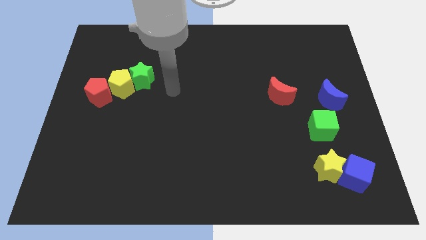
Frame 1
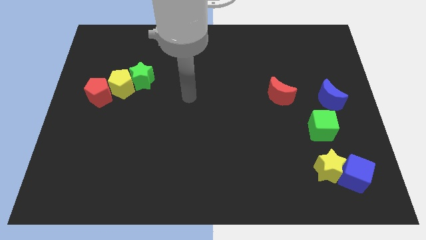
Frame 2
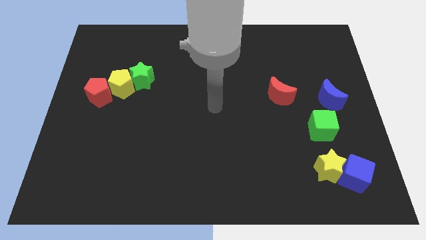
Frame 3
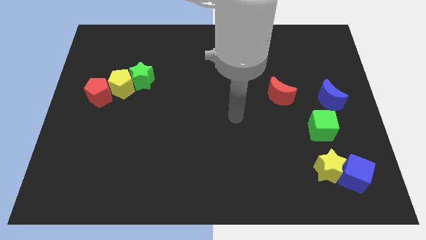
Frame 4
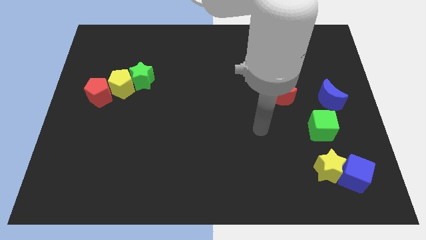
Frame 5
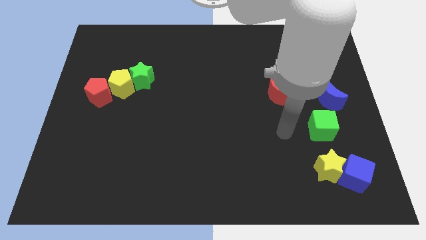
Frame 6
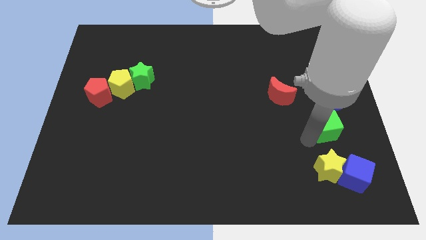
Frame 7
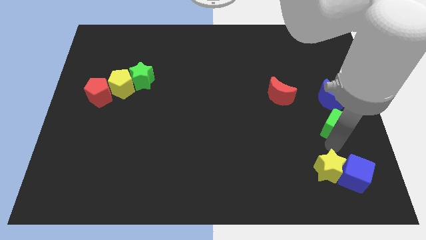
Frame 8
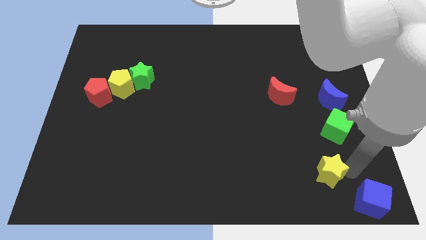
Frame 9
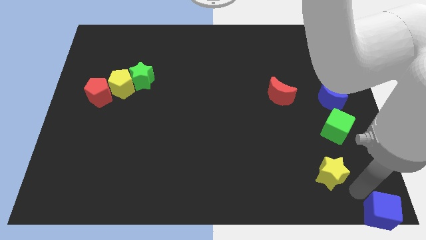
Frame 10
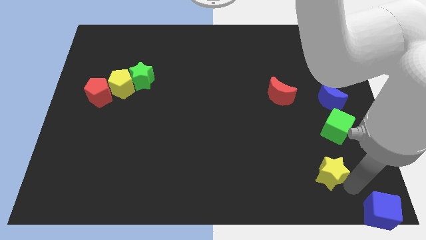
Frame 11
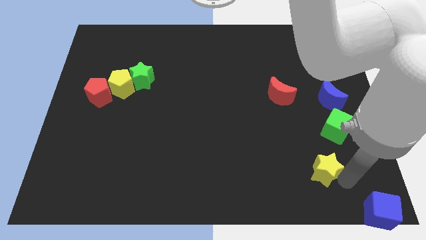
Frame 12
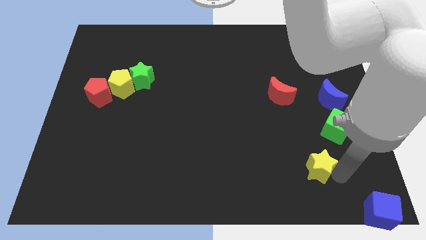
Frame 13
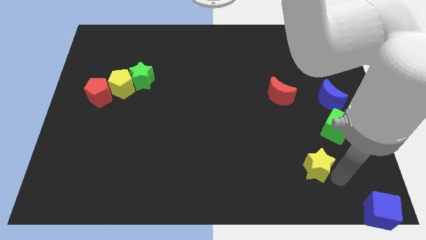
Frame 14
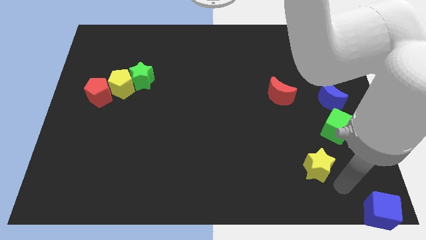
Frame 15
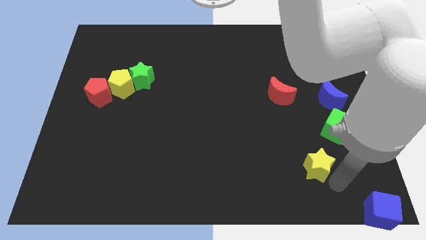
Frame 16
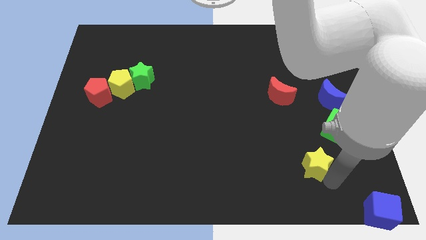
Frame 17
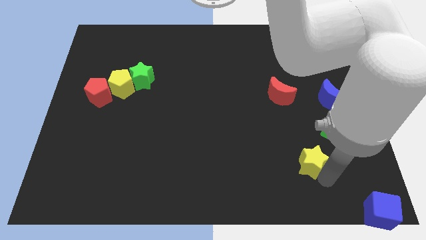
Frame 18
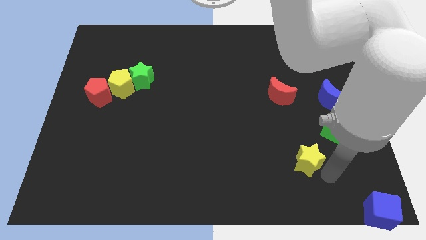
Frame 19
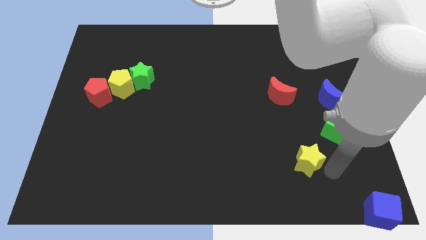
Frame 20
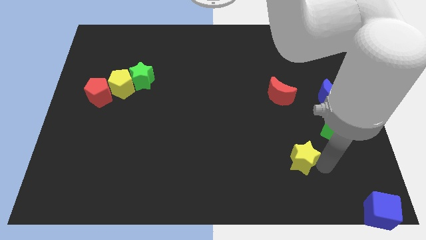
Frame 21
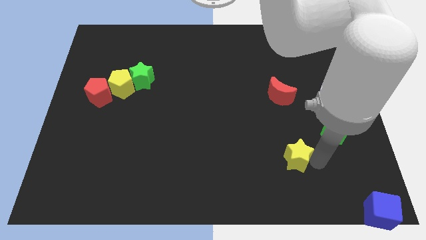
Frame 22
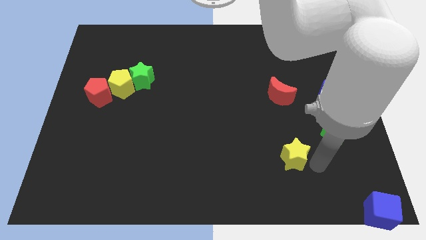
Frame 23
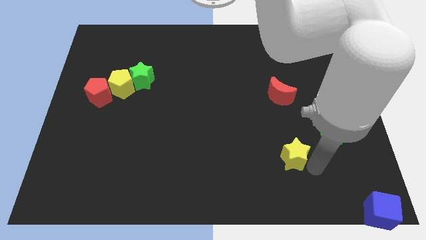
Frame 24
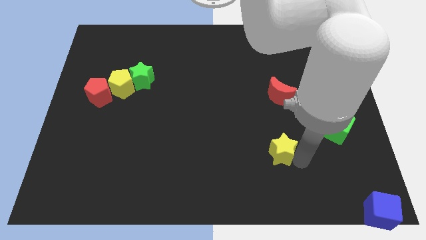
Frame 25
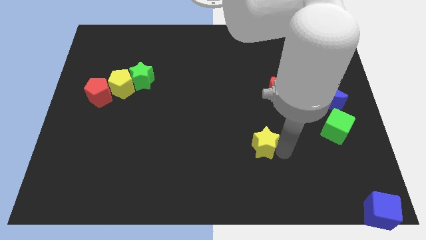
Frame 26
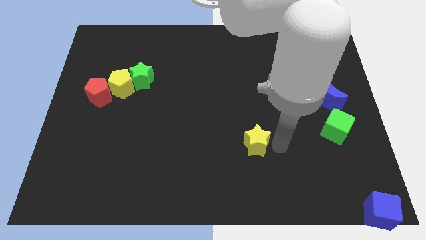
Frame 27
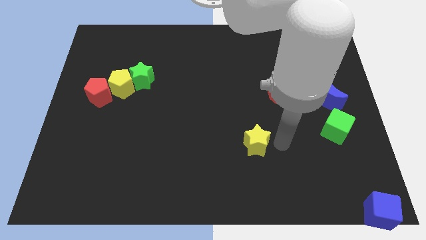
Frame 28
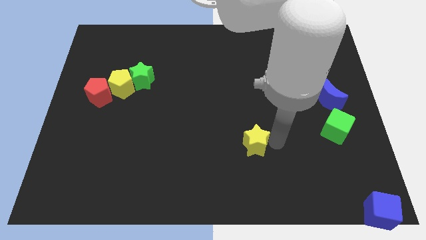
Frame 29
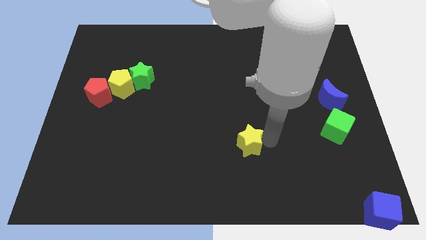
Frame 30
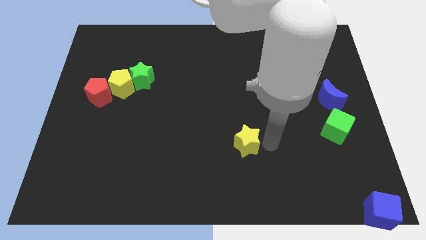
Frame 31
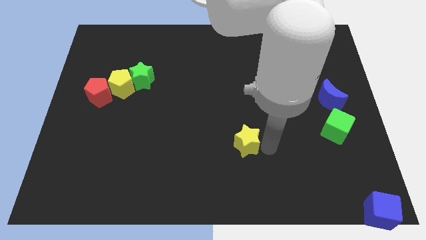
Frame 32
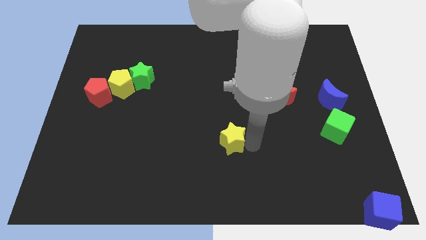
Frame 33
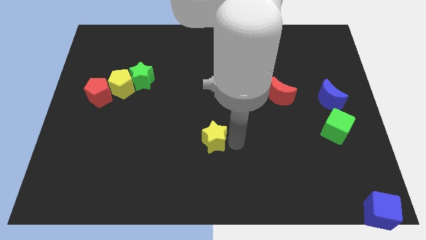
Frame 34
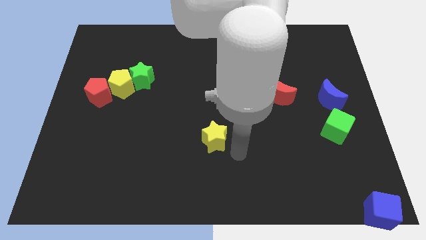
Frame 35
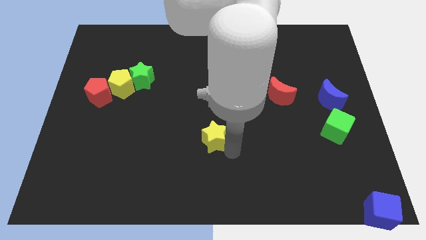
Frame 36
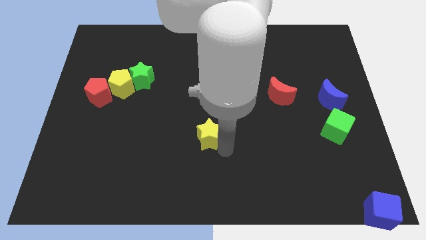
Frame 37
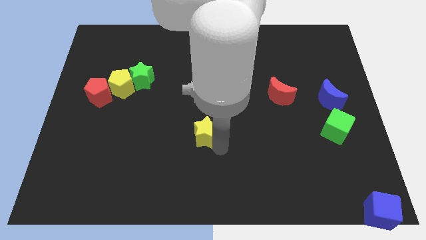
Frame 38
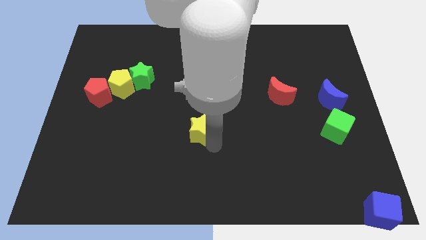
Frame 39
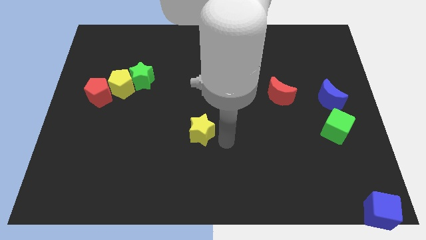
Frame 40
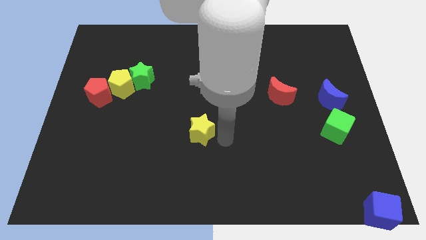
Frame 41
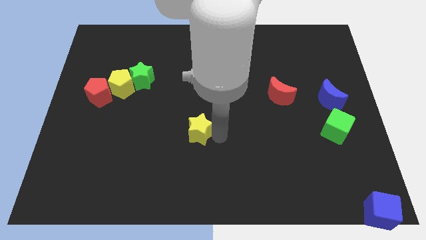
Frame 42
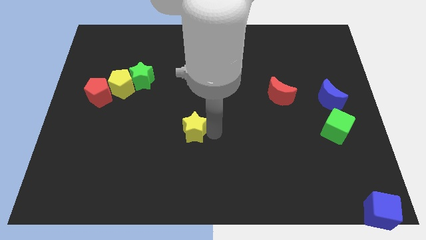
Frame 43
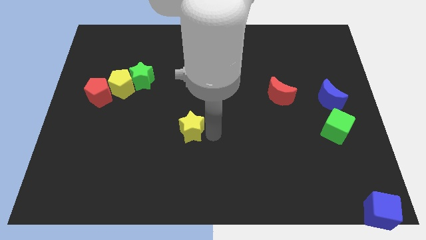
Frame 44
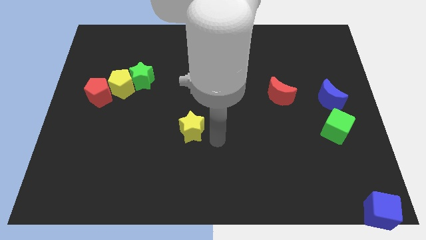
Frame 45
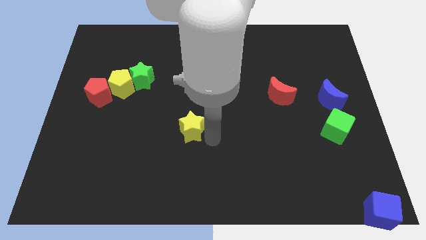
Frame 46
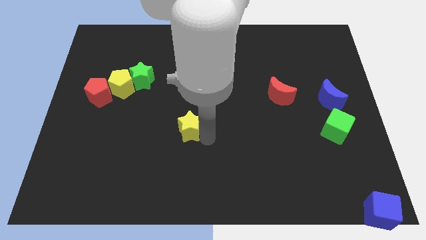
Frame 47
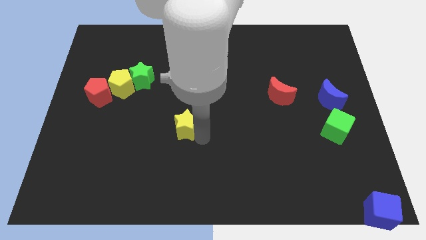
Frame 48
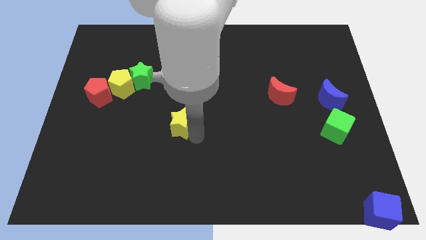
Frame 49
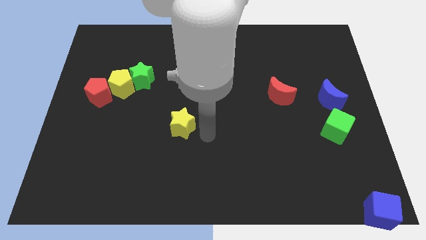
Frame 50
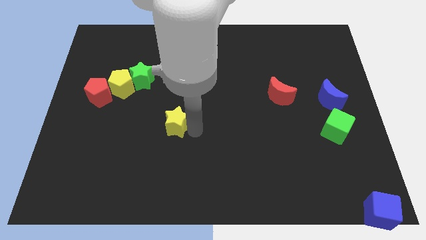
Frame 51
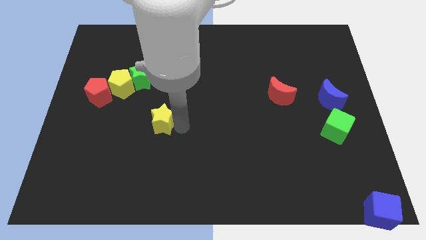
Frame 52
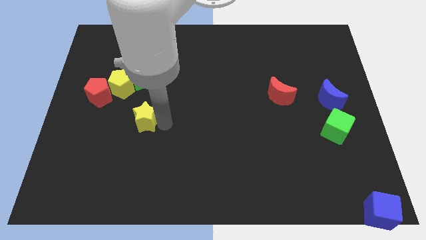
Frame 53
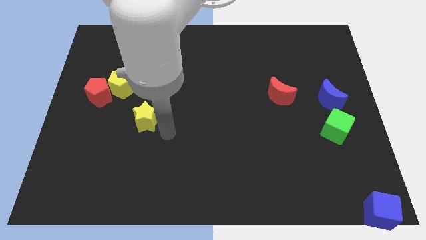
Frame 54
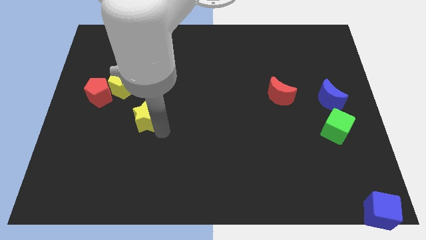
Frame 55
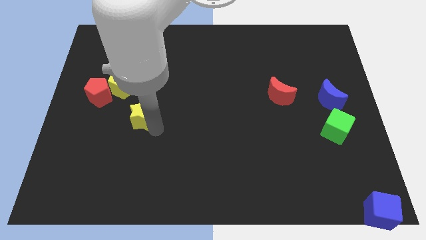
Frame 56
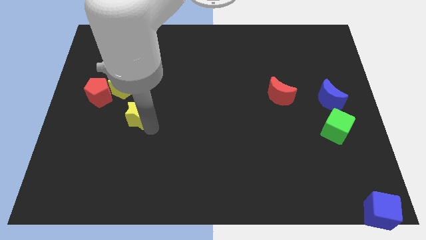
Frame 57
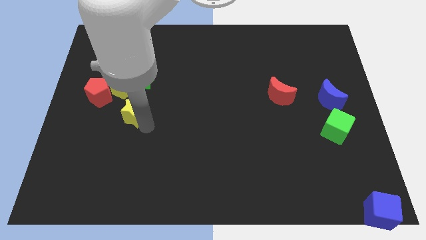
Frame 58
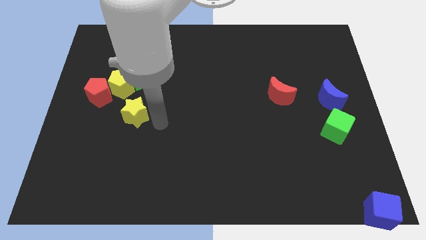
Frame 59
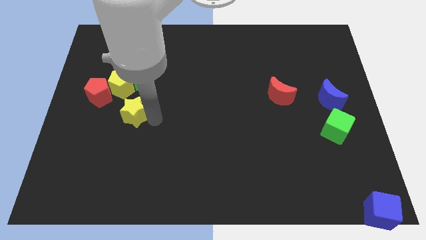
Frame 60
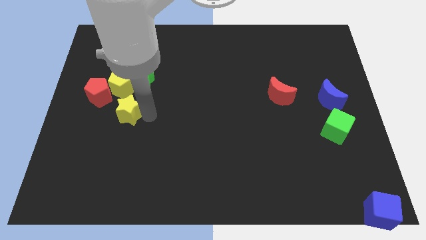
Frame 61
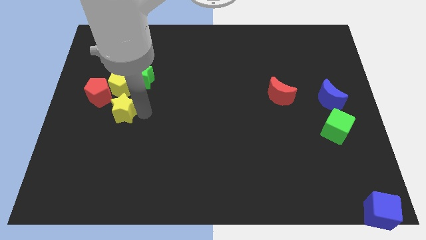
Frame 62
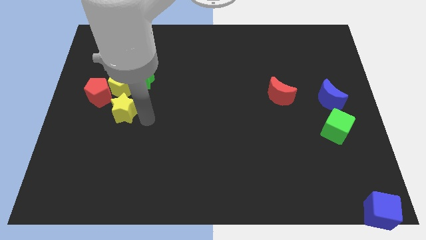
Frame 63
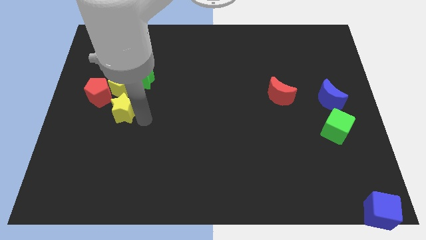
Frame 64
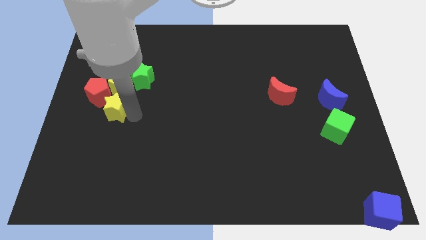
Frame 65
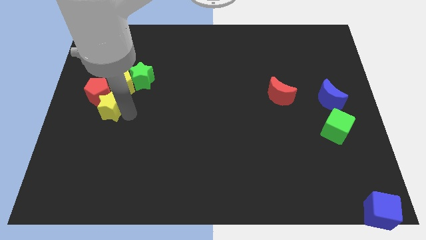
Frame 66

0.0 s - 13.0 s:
move the yellow star next to the red pentagon

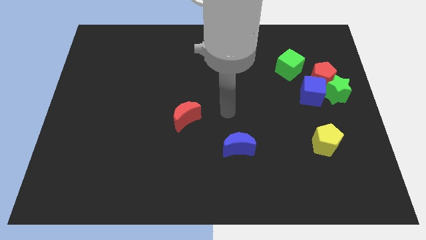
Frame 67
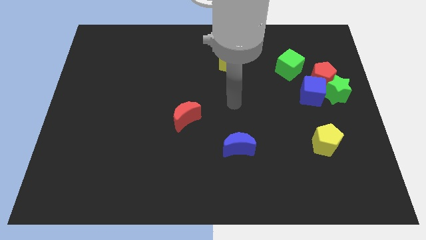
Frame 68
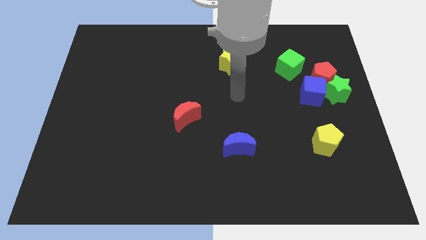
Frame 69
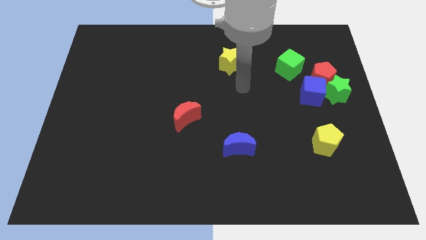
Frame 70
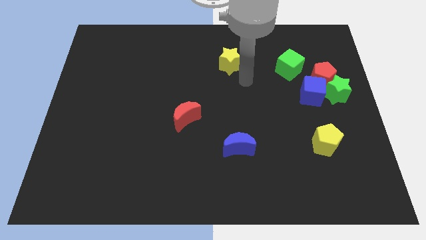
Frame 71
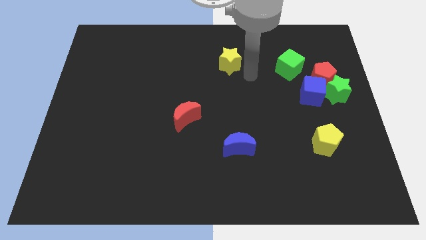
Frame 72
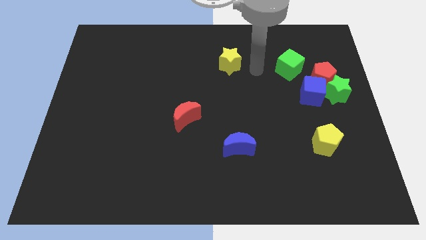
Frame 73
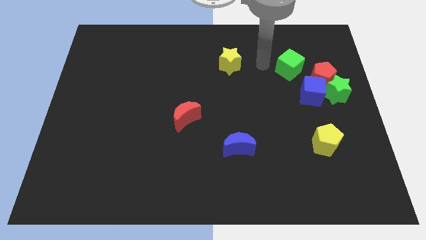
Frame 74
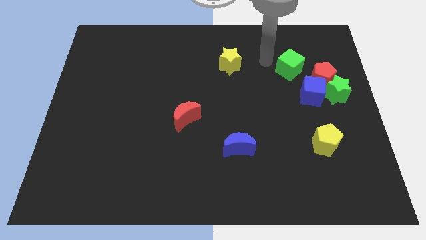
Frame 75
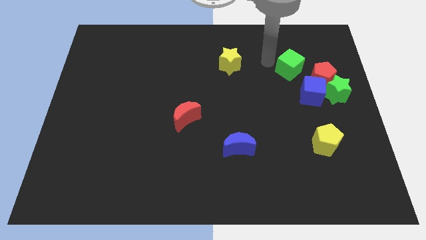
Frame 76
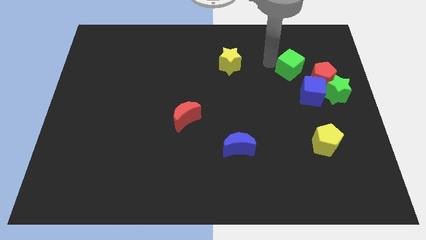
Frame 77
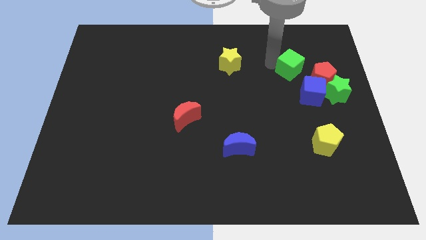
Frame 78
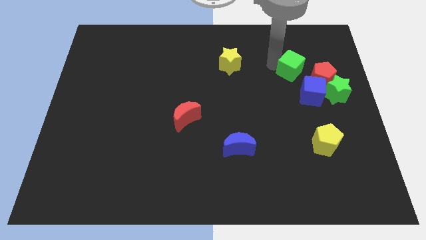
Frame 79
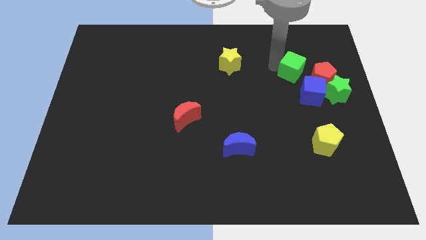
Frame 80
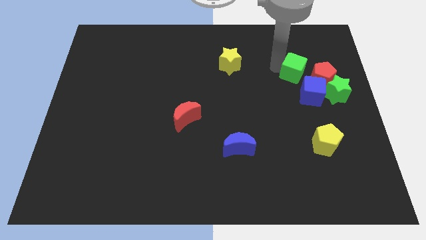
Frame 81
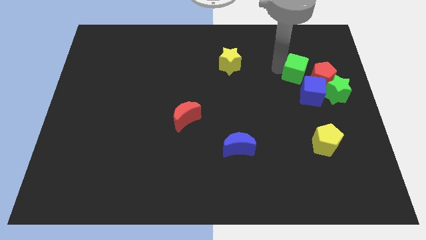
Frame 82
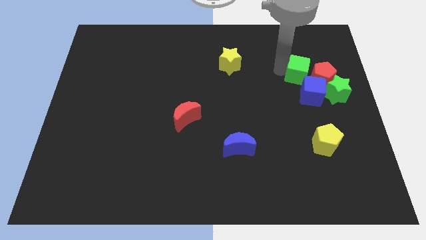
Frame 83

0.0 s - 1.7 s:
push the green cube towards the red pentagon
